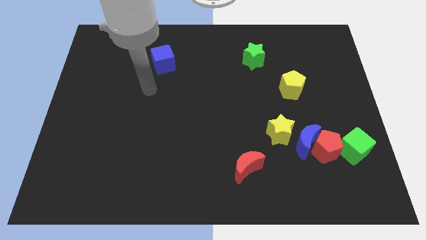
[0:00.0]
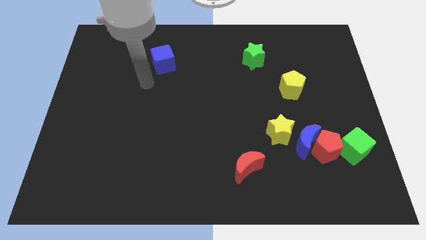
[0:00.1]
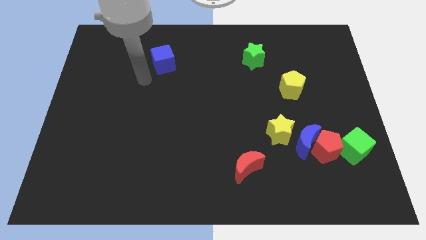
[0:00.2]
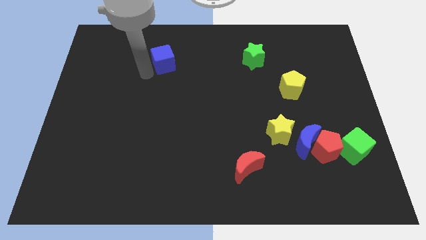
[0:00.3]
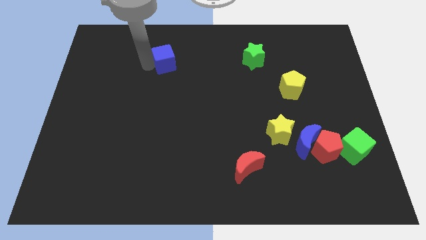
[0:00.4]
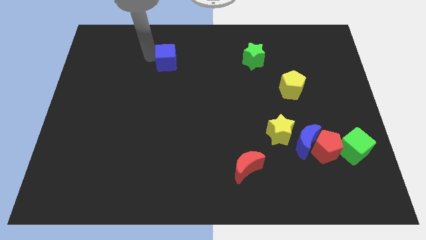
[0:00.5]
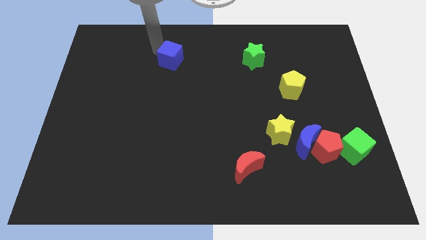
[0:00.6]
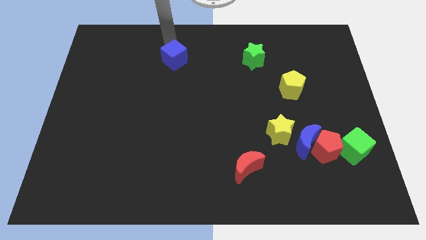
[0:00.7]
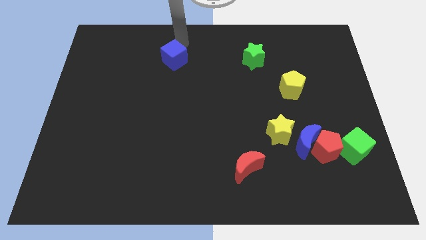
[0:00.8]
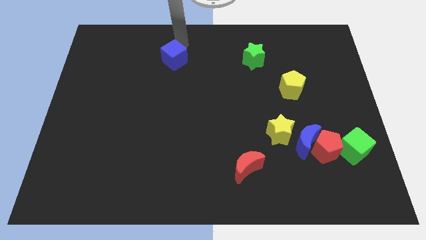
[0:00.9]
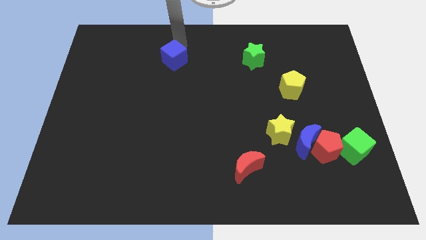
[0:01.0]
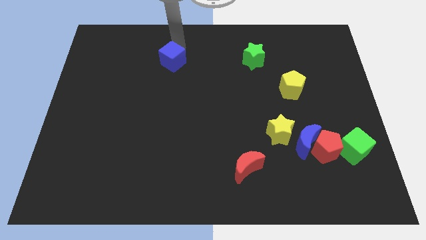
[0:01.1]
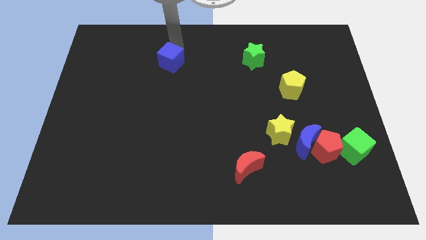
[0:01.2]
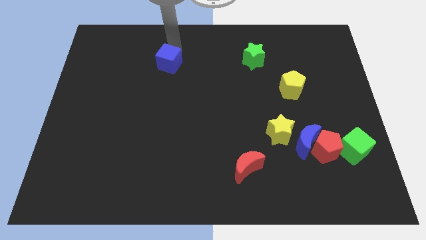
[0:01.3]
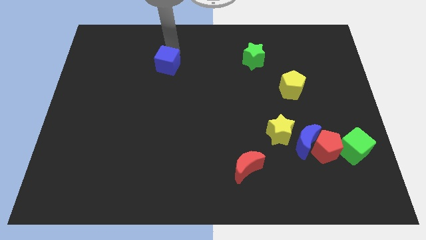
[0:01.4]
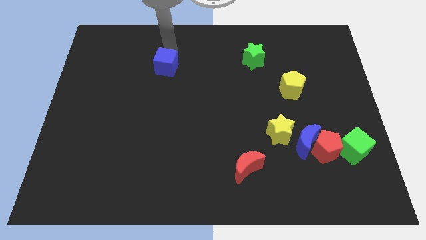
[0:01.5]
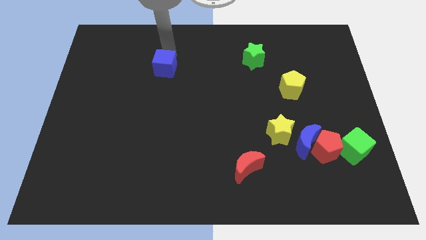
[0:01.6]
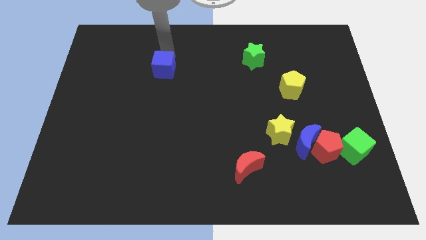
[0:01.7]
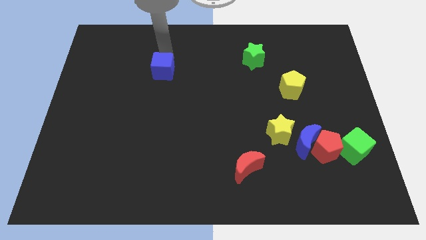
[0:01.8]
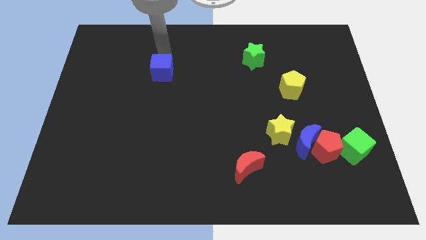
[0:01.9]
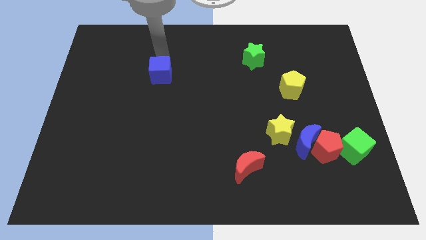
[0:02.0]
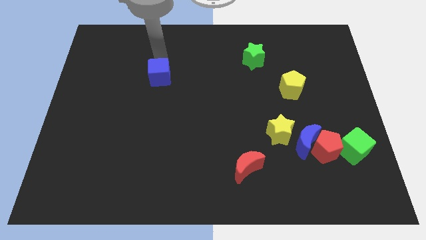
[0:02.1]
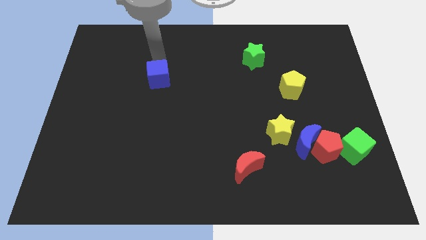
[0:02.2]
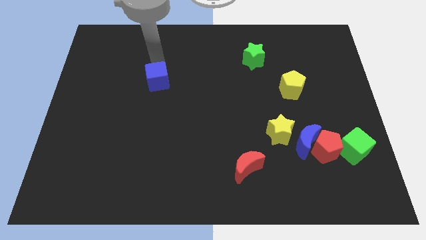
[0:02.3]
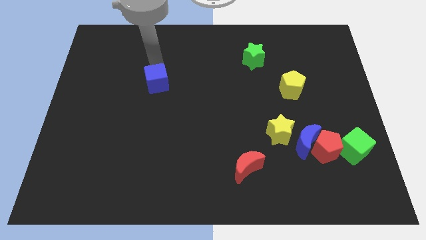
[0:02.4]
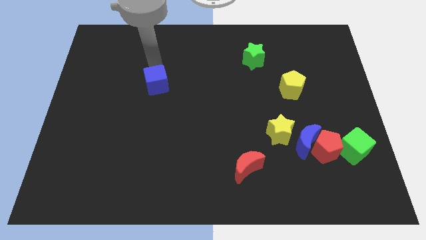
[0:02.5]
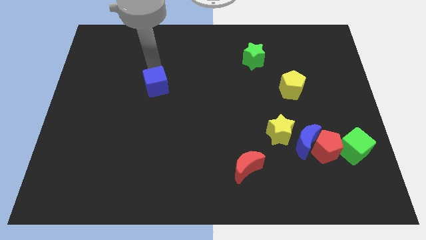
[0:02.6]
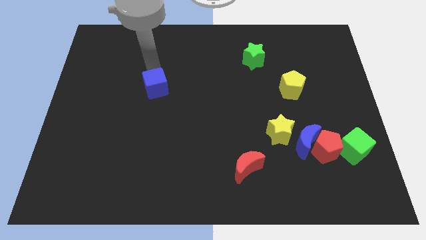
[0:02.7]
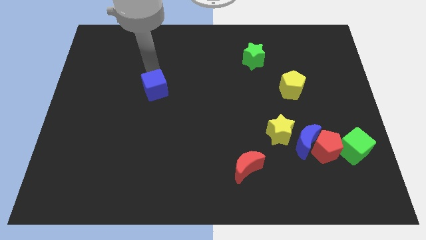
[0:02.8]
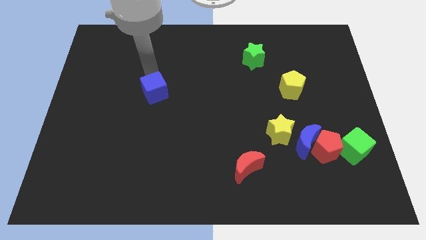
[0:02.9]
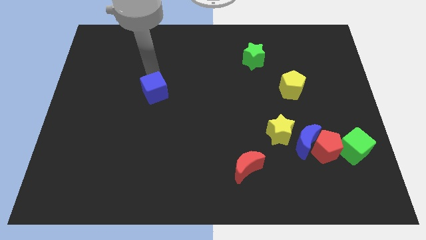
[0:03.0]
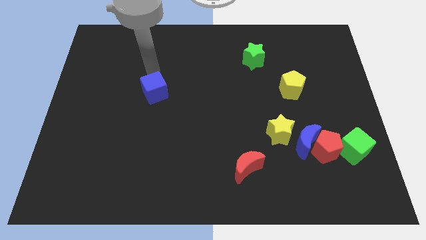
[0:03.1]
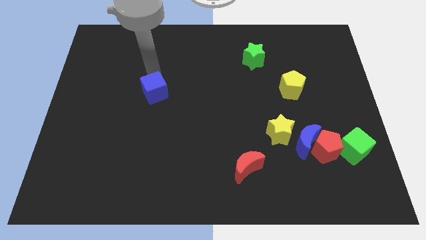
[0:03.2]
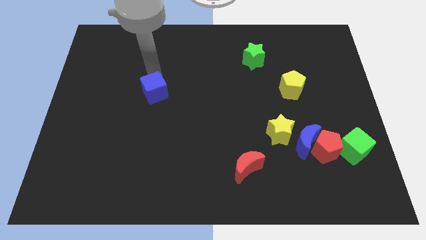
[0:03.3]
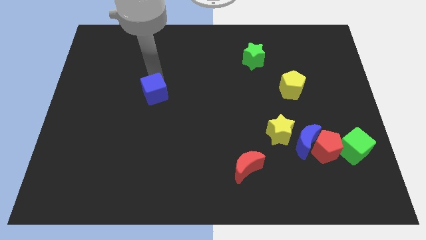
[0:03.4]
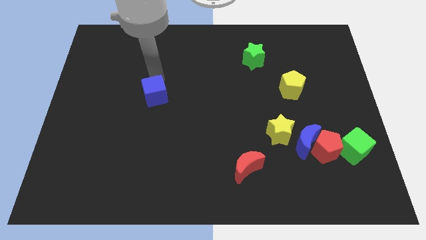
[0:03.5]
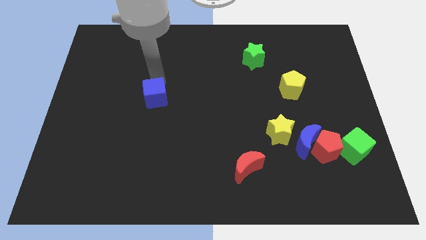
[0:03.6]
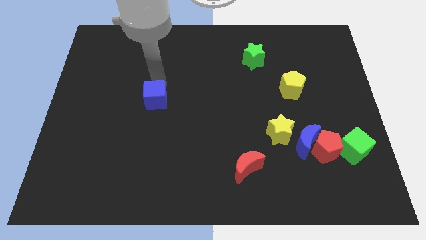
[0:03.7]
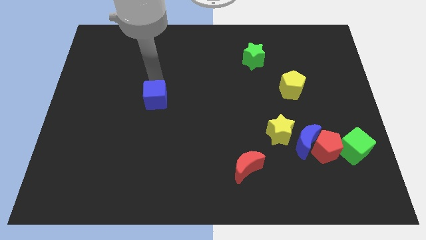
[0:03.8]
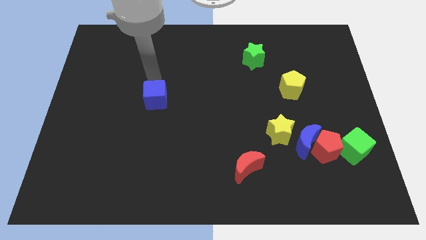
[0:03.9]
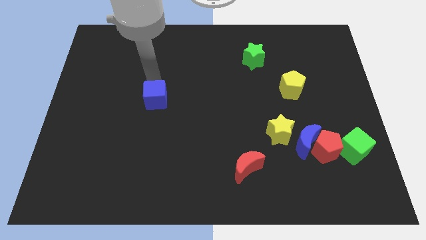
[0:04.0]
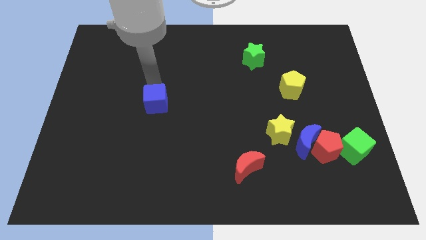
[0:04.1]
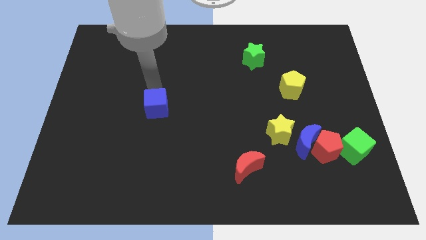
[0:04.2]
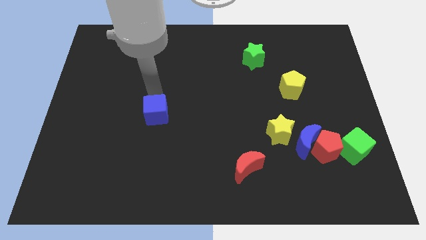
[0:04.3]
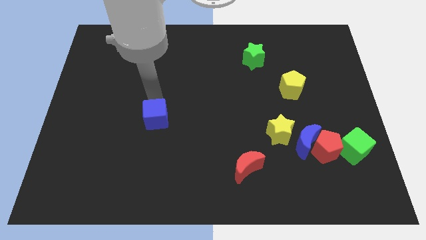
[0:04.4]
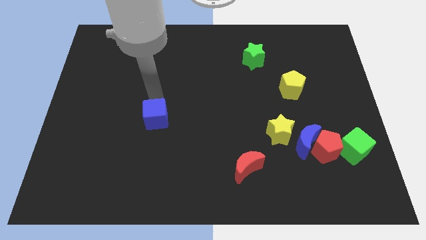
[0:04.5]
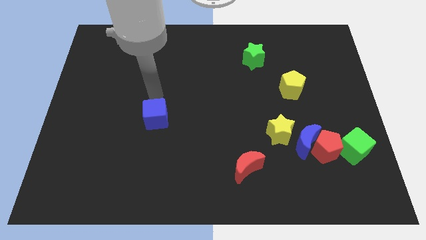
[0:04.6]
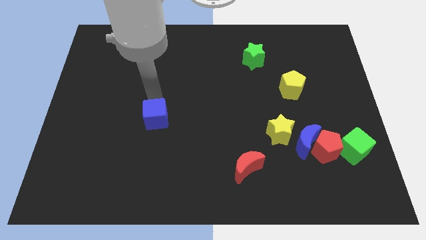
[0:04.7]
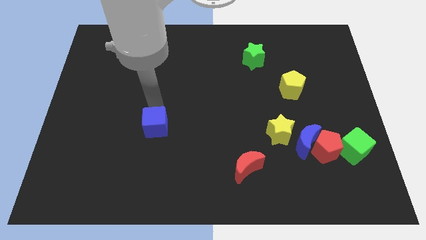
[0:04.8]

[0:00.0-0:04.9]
move the blue cube down

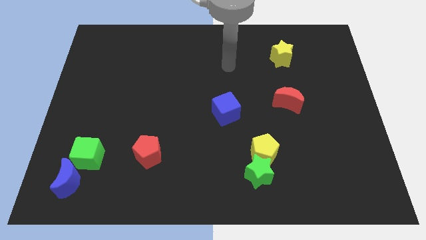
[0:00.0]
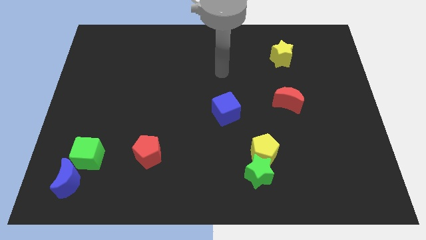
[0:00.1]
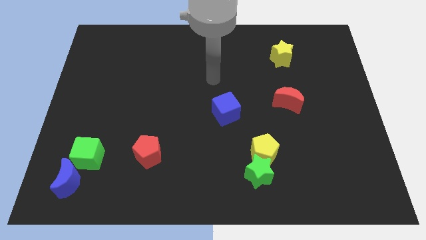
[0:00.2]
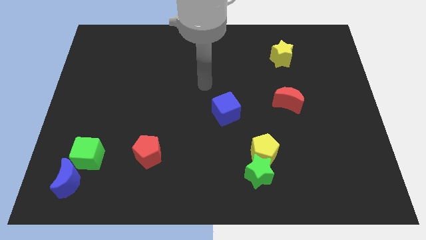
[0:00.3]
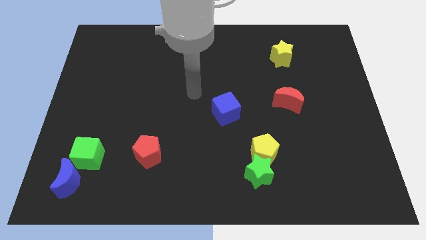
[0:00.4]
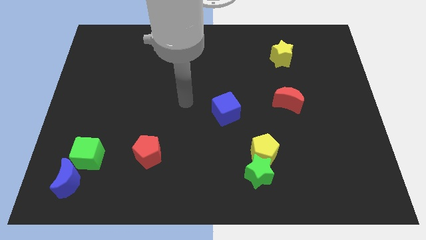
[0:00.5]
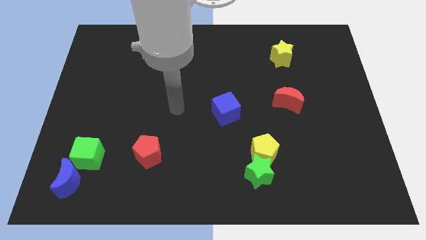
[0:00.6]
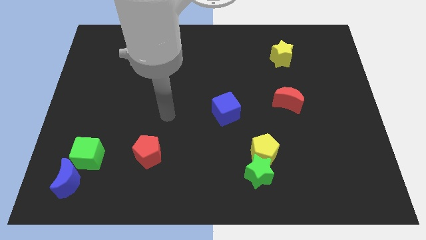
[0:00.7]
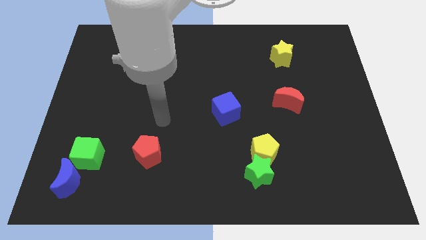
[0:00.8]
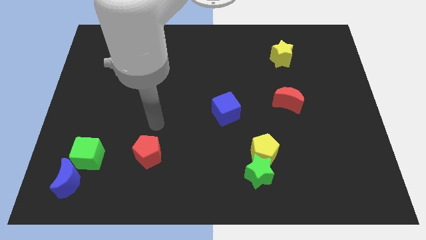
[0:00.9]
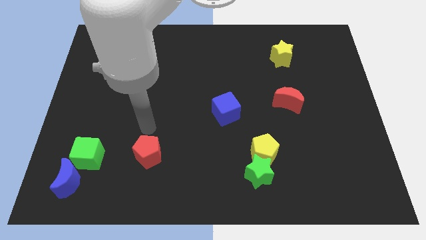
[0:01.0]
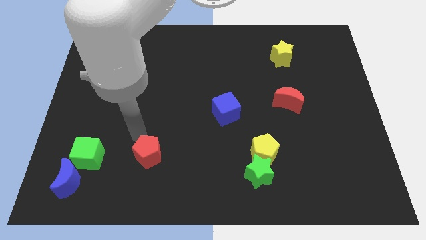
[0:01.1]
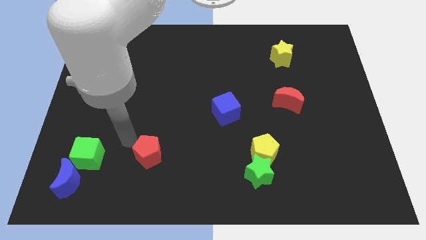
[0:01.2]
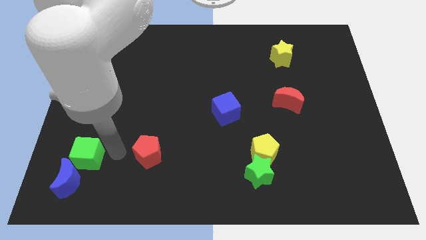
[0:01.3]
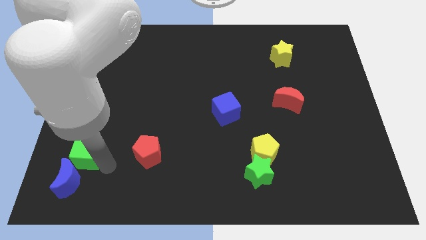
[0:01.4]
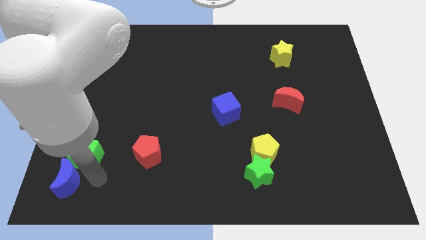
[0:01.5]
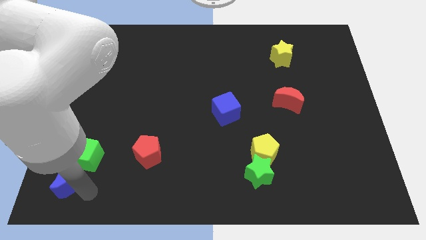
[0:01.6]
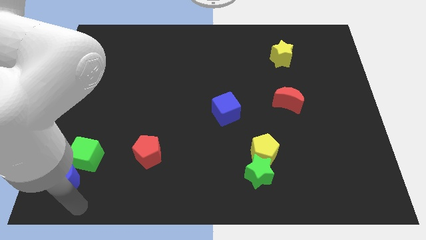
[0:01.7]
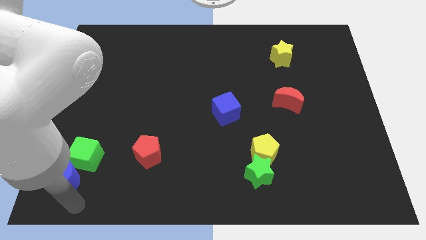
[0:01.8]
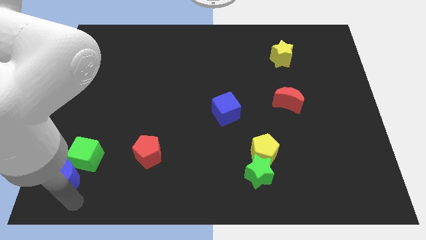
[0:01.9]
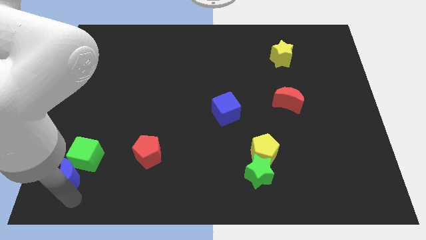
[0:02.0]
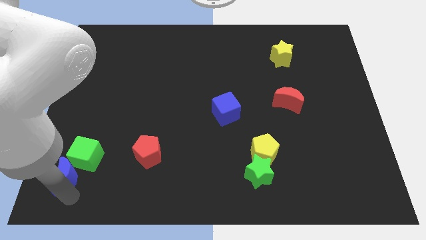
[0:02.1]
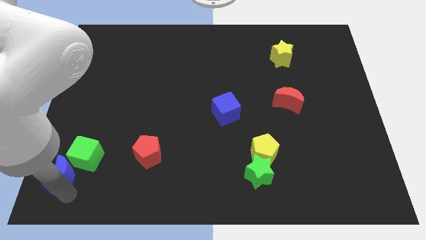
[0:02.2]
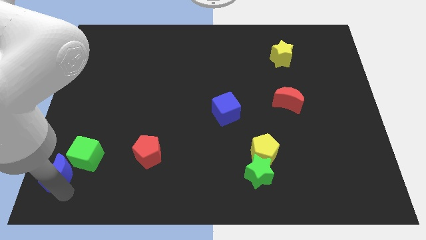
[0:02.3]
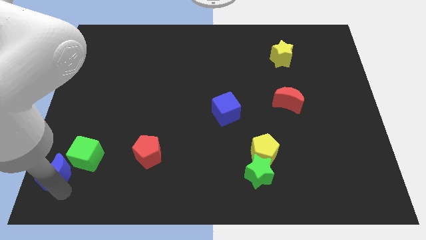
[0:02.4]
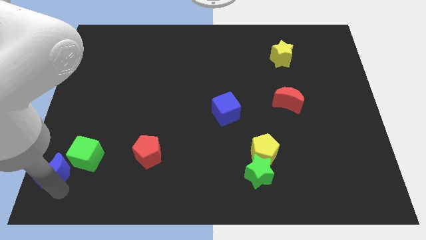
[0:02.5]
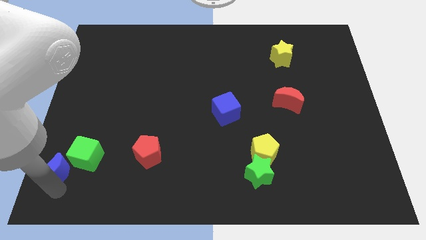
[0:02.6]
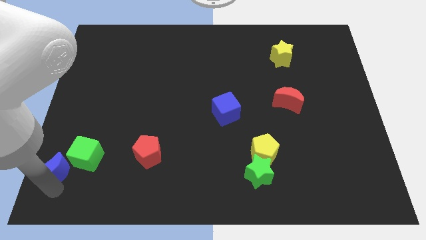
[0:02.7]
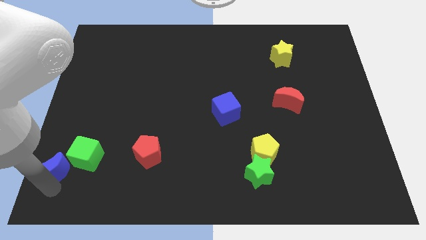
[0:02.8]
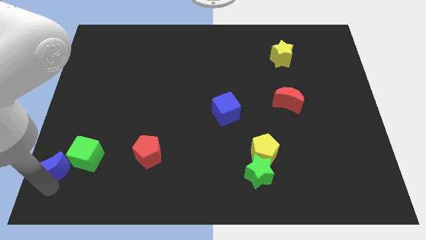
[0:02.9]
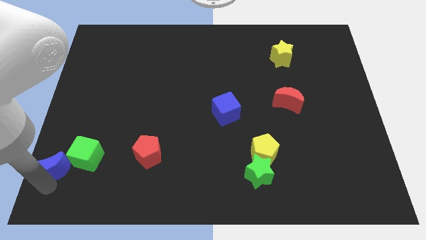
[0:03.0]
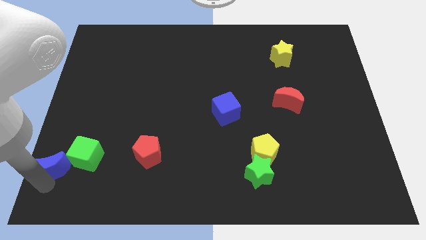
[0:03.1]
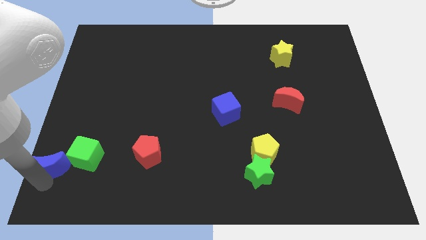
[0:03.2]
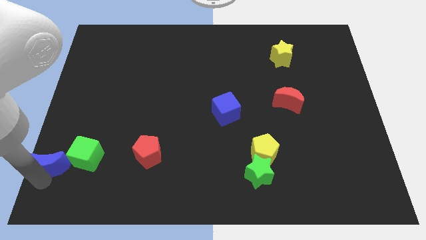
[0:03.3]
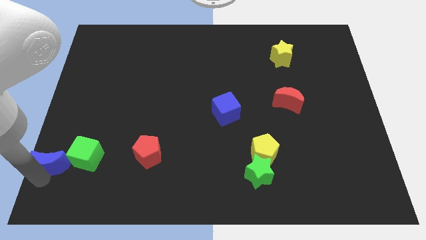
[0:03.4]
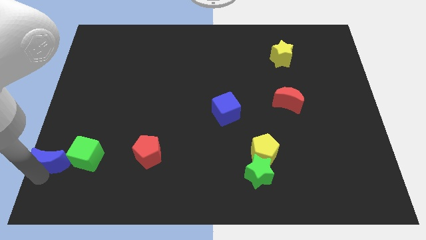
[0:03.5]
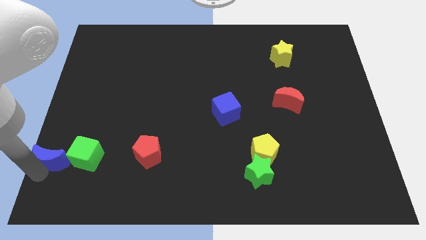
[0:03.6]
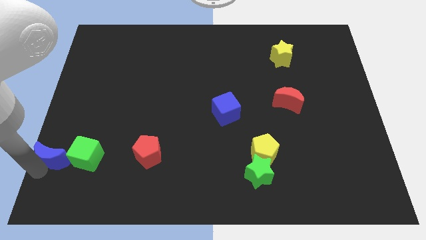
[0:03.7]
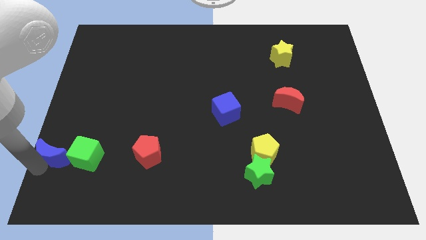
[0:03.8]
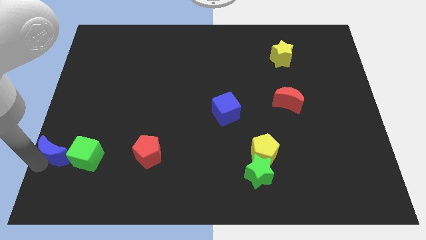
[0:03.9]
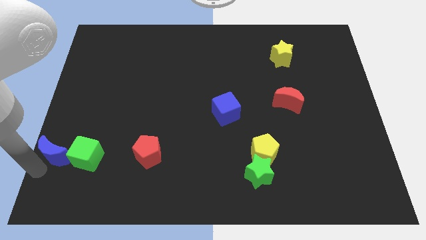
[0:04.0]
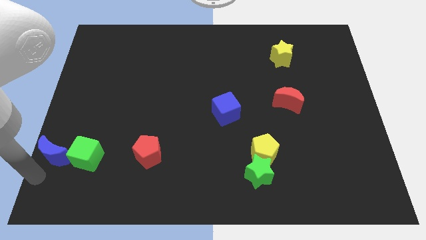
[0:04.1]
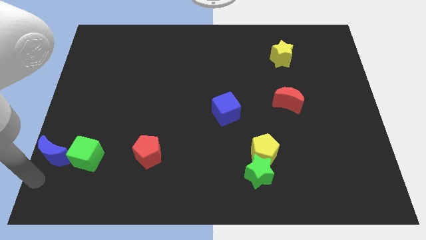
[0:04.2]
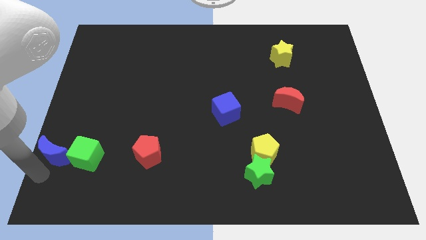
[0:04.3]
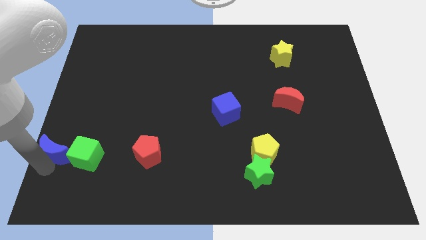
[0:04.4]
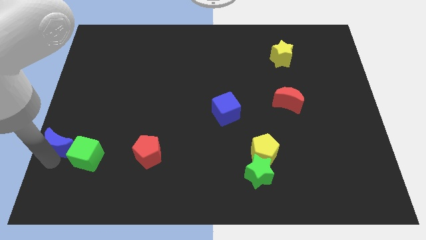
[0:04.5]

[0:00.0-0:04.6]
move the blue moon upwards a little bit
